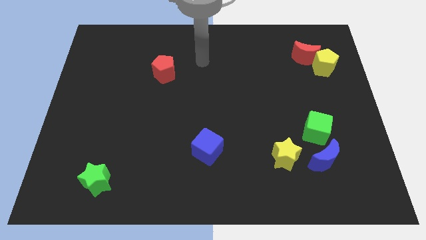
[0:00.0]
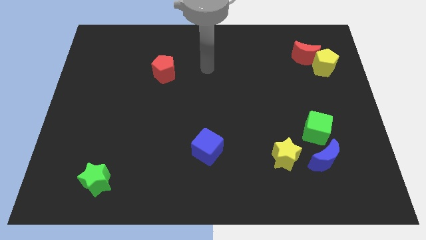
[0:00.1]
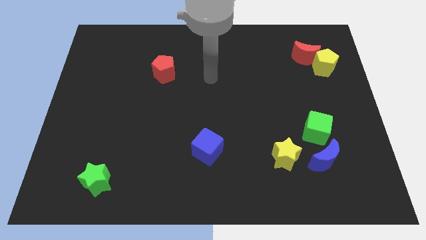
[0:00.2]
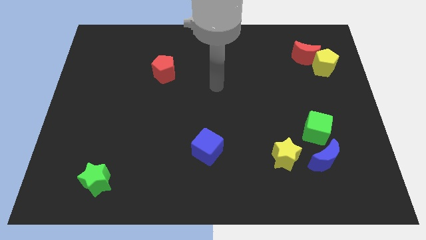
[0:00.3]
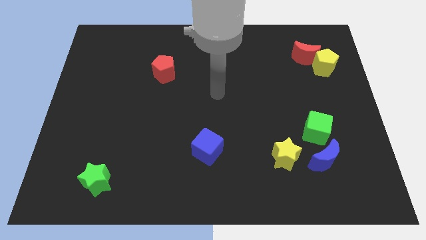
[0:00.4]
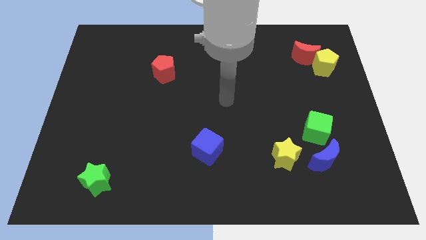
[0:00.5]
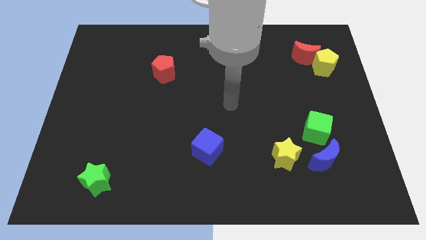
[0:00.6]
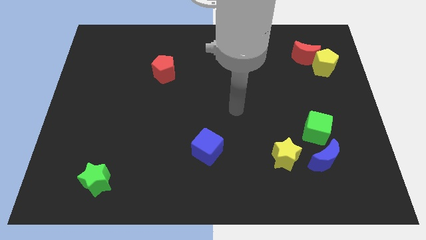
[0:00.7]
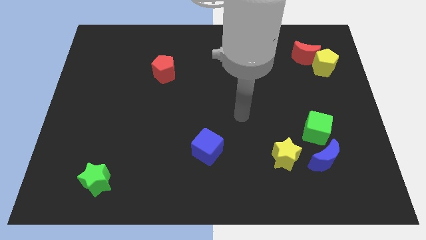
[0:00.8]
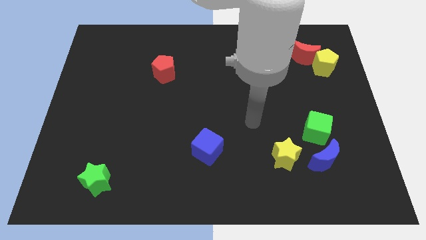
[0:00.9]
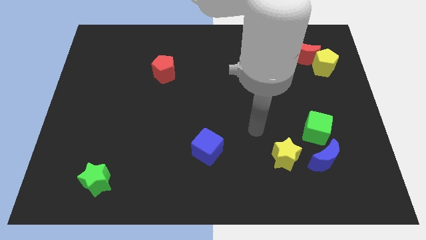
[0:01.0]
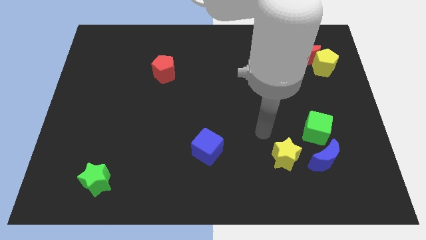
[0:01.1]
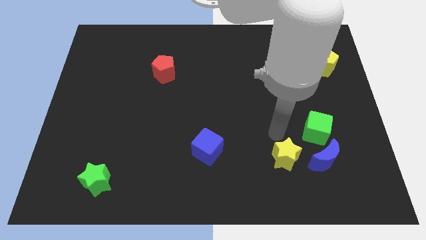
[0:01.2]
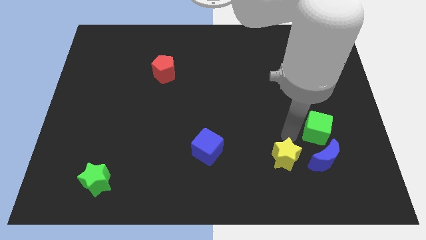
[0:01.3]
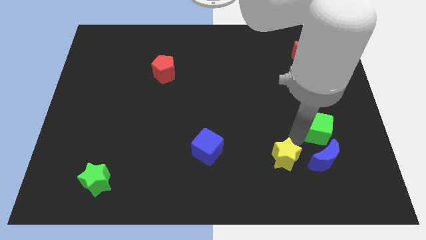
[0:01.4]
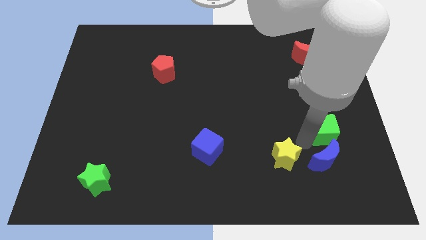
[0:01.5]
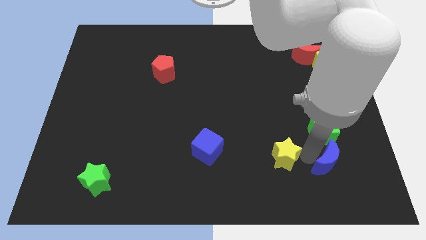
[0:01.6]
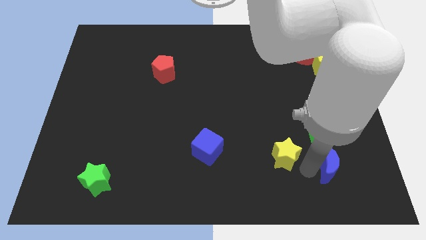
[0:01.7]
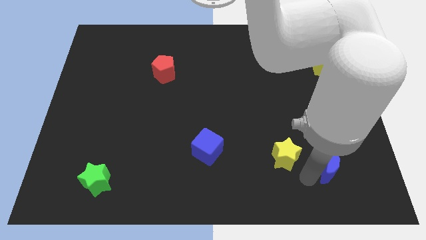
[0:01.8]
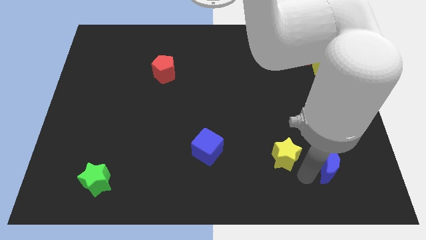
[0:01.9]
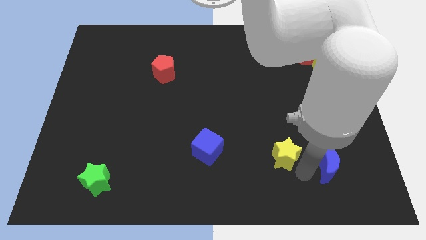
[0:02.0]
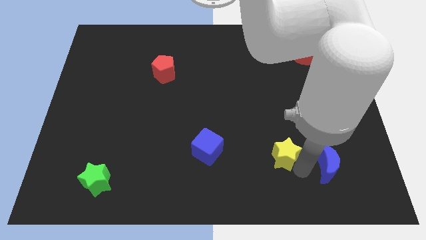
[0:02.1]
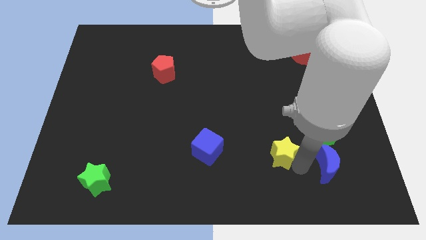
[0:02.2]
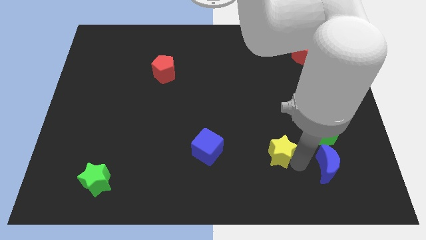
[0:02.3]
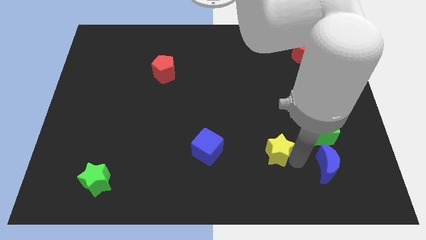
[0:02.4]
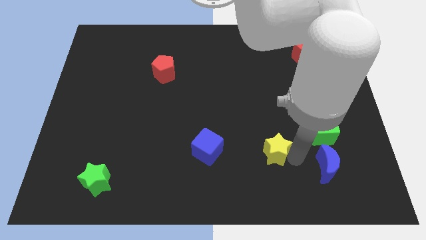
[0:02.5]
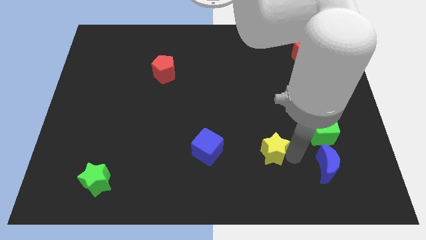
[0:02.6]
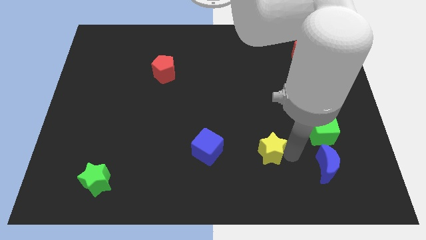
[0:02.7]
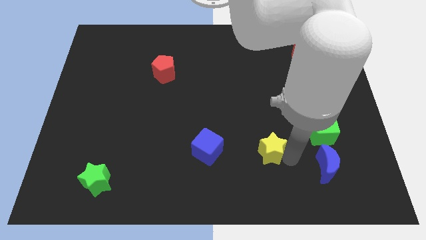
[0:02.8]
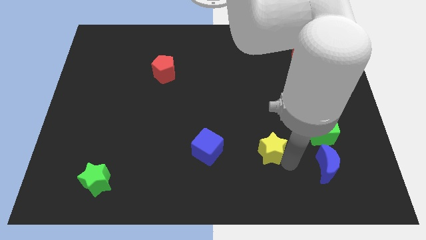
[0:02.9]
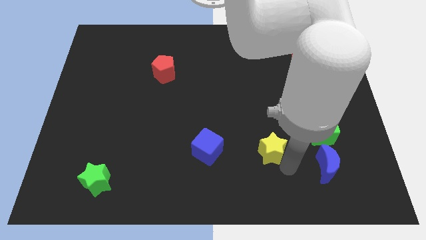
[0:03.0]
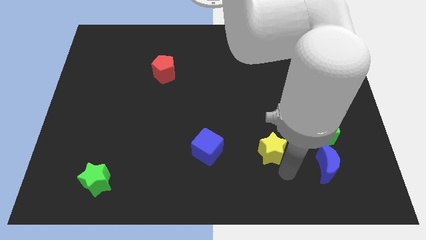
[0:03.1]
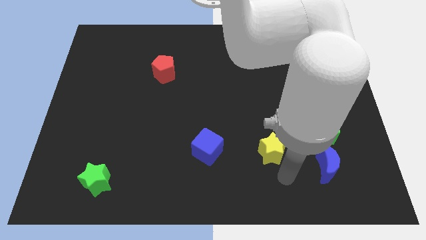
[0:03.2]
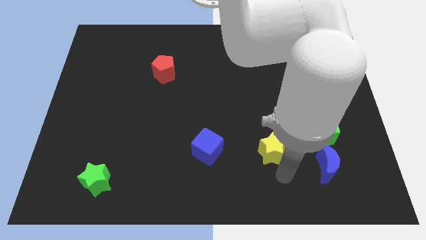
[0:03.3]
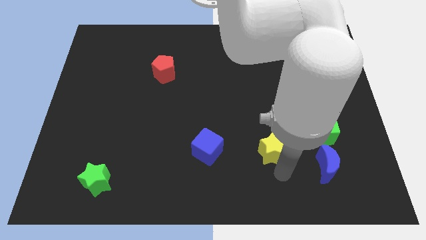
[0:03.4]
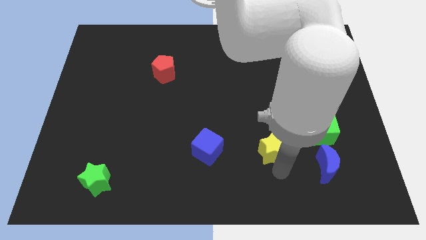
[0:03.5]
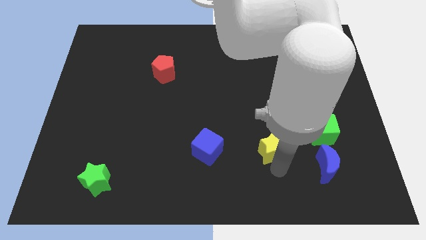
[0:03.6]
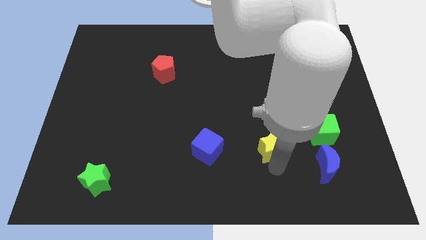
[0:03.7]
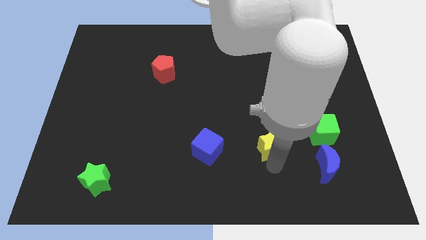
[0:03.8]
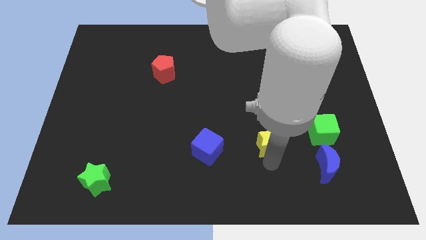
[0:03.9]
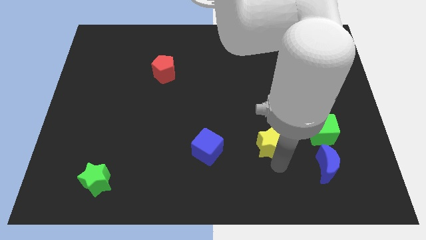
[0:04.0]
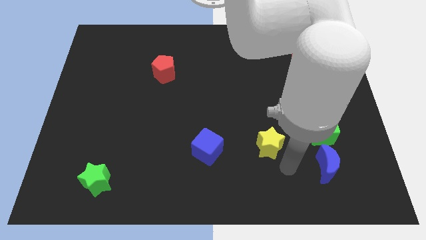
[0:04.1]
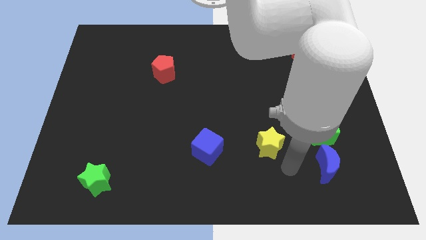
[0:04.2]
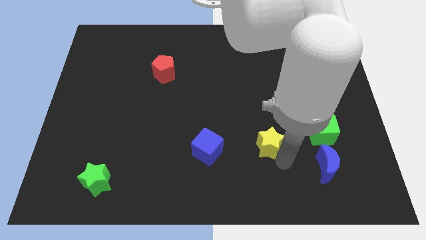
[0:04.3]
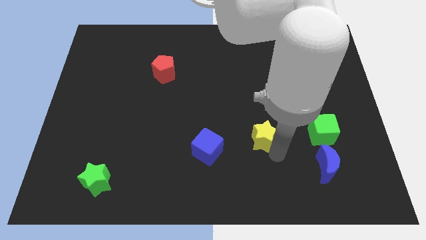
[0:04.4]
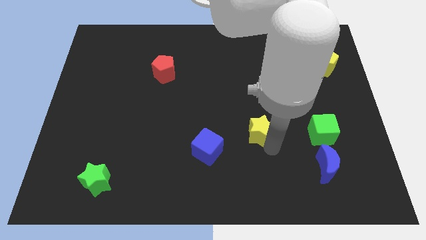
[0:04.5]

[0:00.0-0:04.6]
push the yellow star a little upwards and left

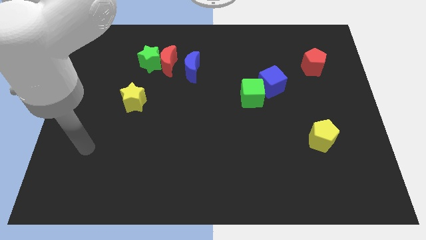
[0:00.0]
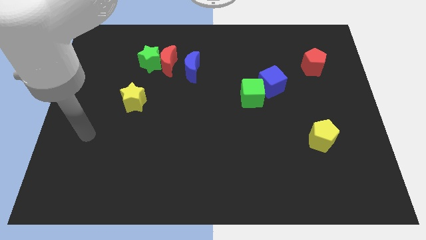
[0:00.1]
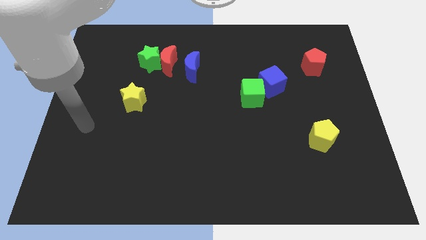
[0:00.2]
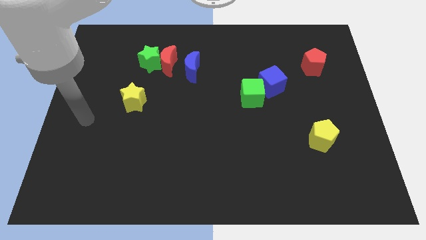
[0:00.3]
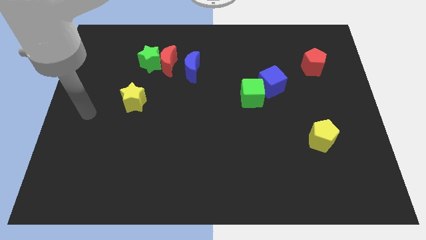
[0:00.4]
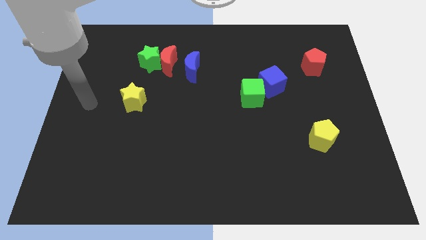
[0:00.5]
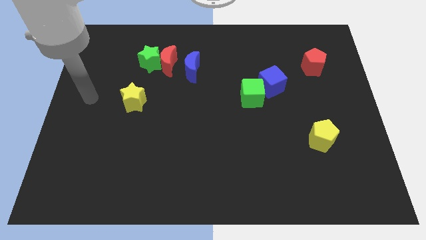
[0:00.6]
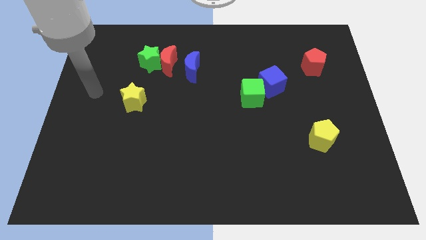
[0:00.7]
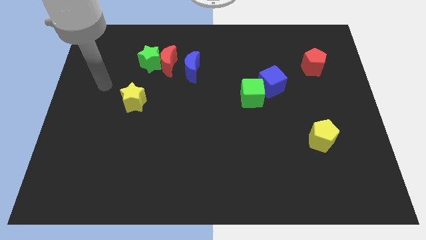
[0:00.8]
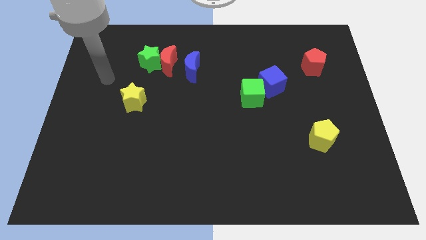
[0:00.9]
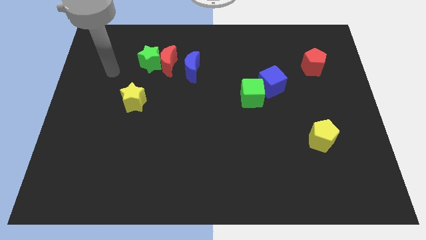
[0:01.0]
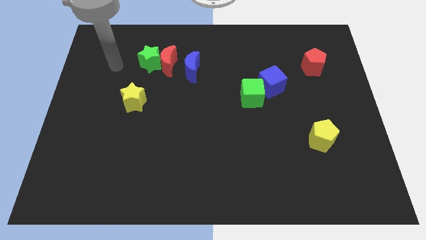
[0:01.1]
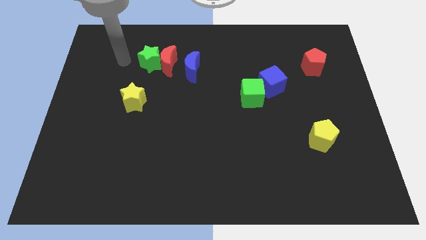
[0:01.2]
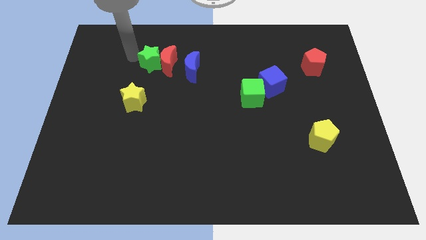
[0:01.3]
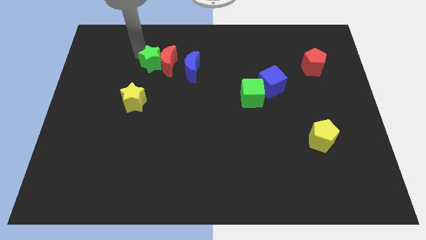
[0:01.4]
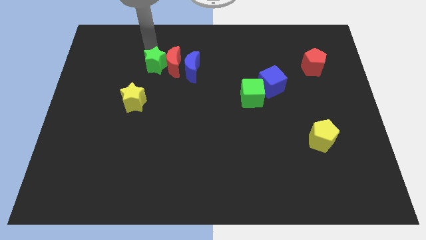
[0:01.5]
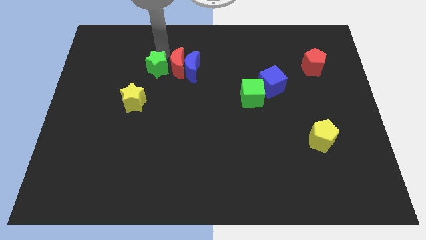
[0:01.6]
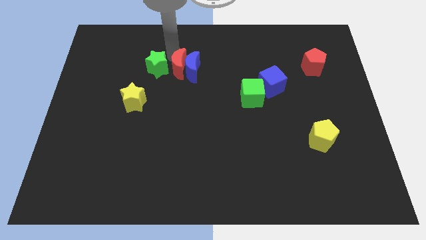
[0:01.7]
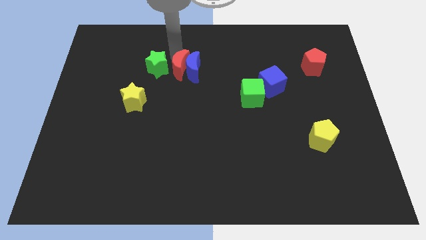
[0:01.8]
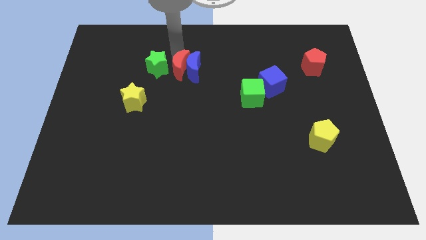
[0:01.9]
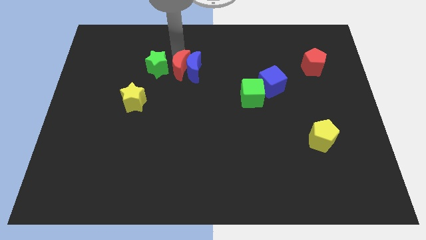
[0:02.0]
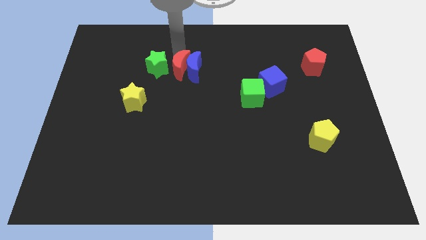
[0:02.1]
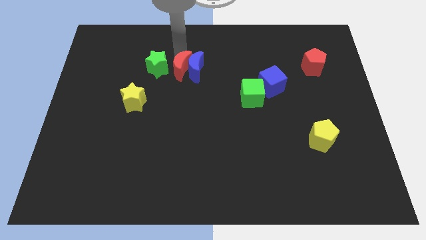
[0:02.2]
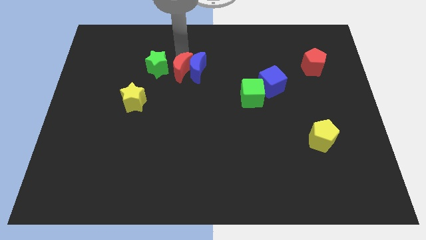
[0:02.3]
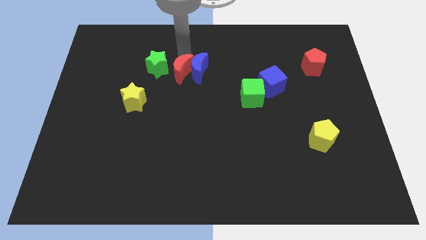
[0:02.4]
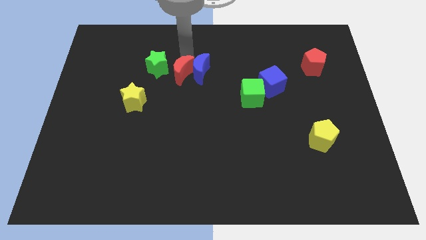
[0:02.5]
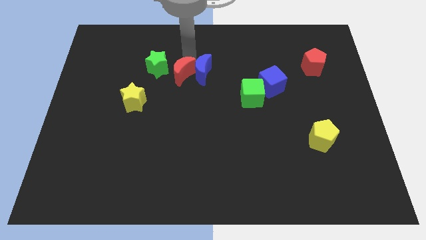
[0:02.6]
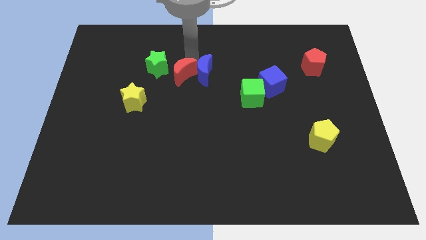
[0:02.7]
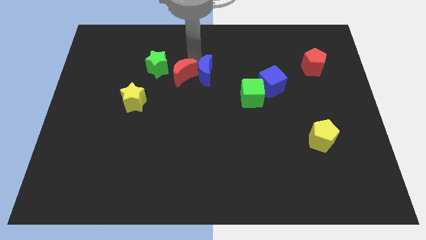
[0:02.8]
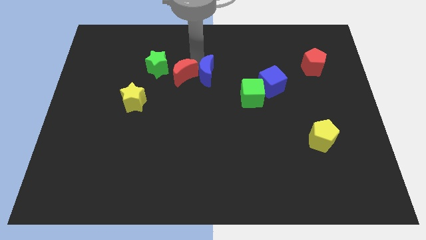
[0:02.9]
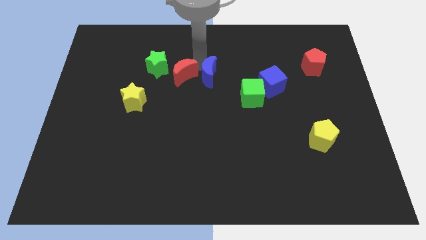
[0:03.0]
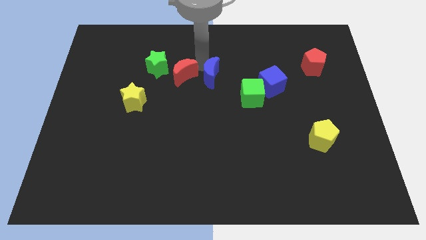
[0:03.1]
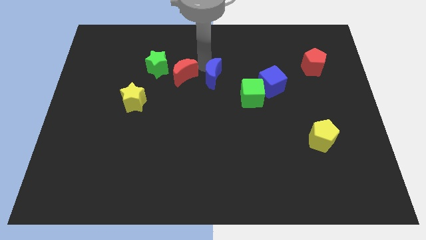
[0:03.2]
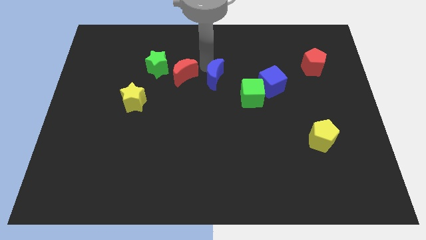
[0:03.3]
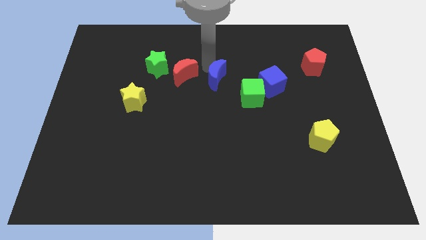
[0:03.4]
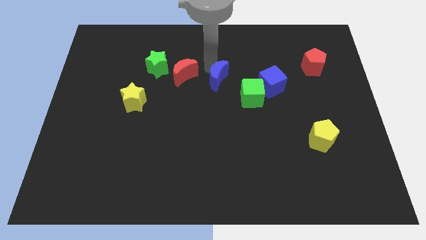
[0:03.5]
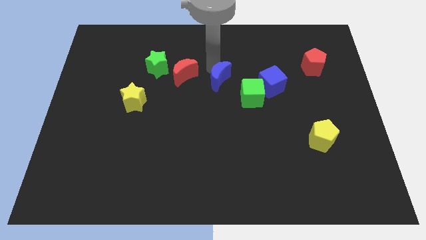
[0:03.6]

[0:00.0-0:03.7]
slightly push the blue moon downwards and then to the right
